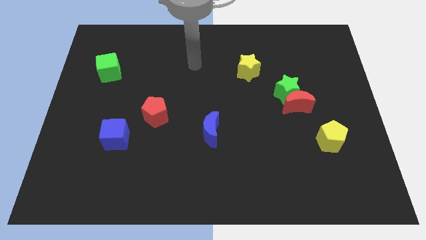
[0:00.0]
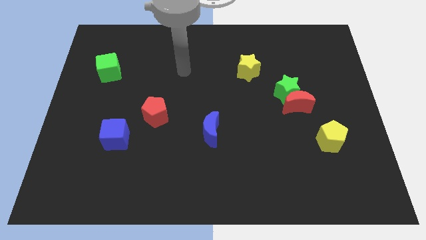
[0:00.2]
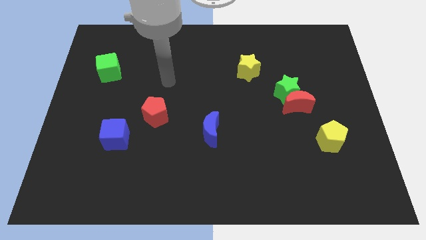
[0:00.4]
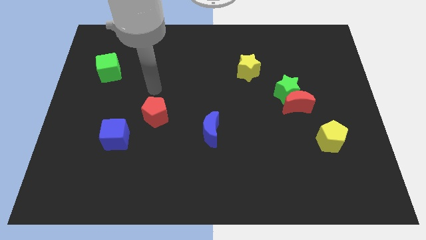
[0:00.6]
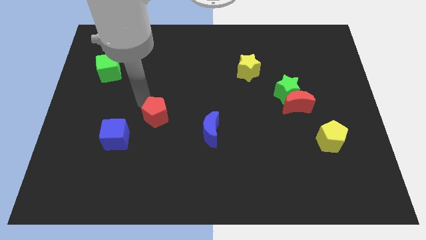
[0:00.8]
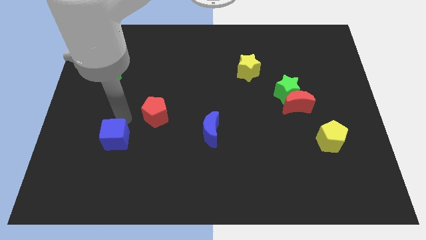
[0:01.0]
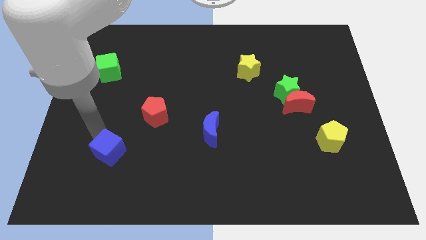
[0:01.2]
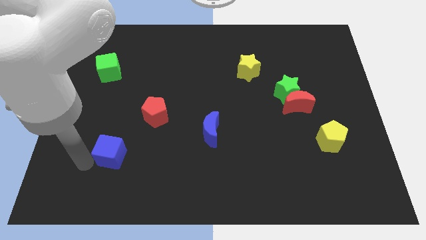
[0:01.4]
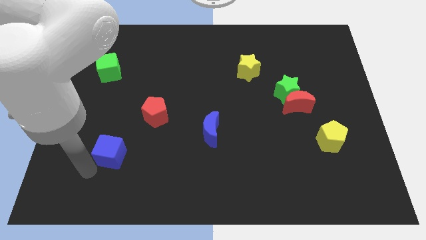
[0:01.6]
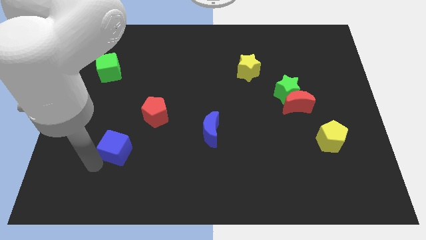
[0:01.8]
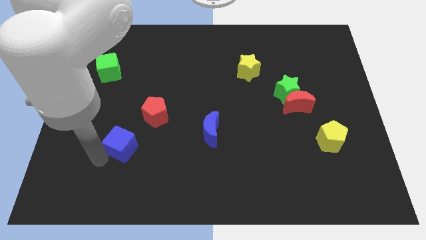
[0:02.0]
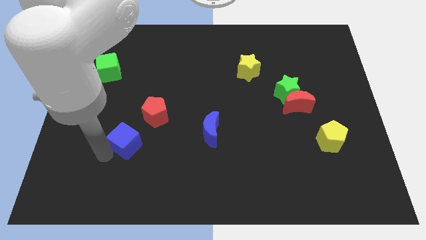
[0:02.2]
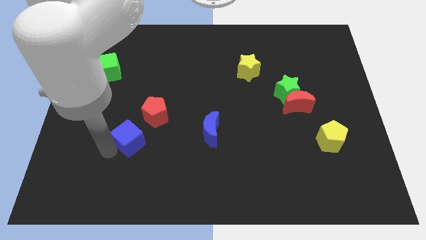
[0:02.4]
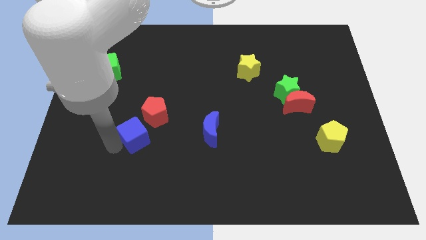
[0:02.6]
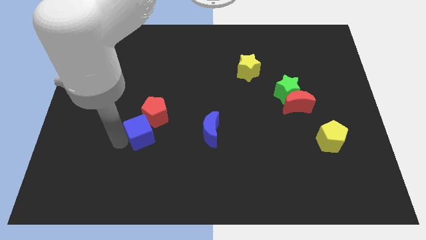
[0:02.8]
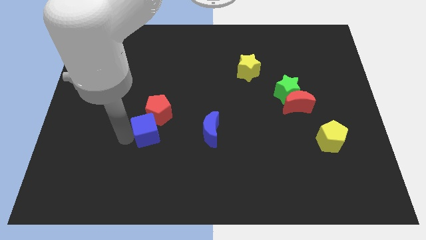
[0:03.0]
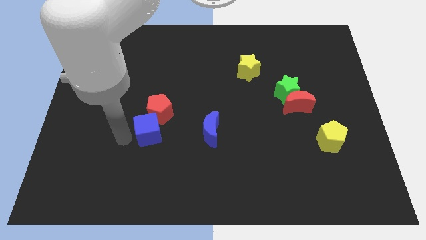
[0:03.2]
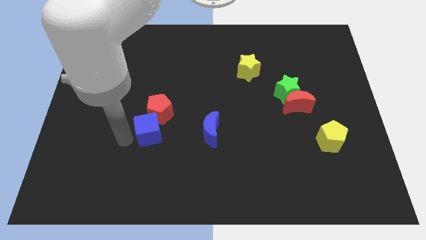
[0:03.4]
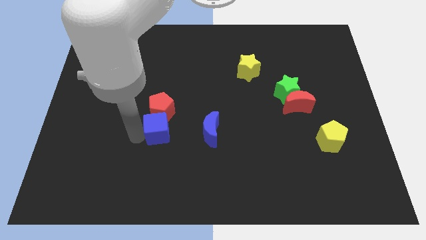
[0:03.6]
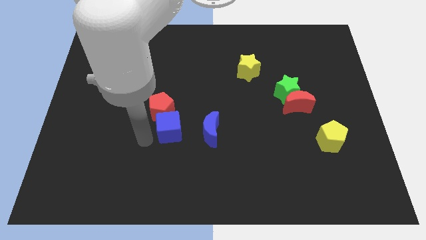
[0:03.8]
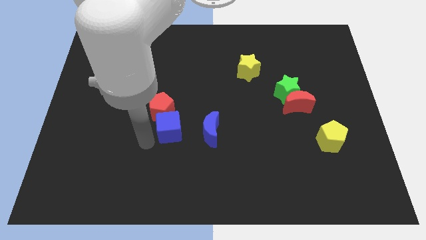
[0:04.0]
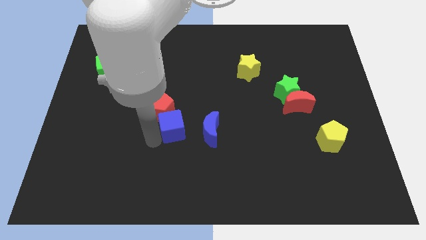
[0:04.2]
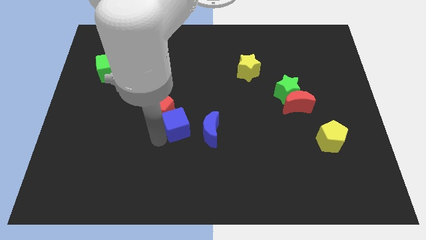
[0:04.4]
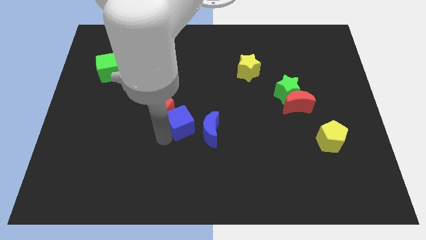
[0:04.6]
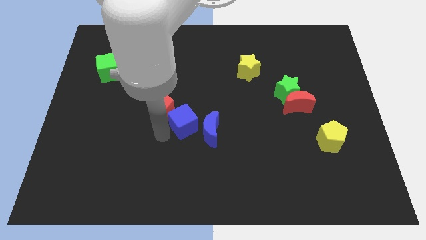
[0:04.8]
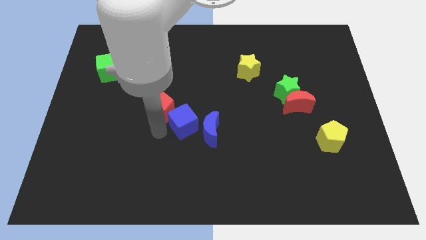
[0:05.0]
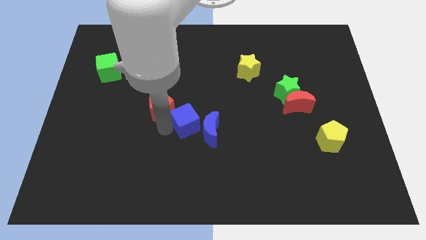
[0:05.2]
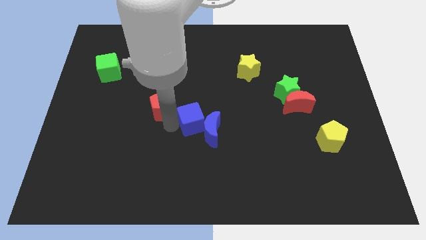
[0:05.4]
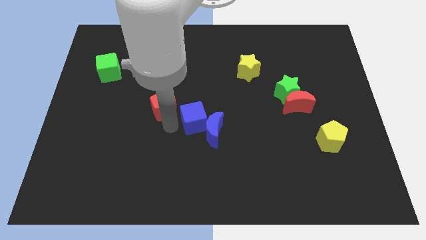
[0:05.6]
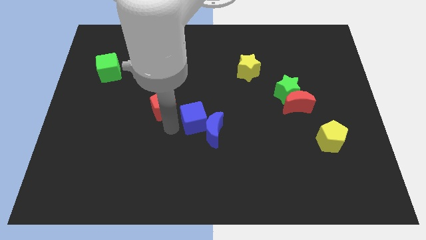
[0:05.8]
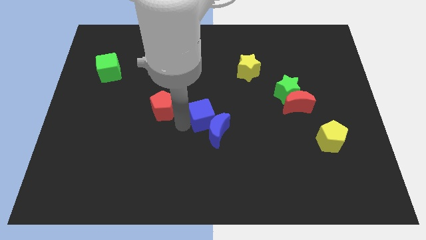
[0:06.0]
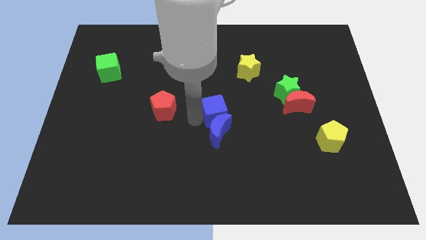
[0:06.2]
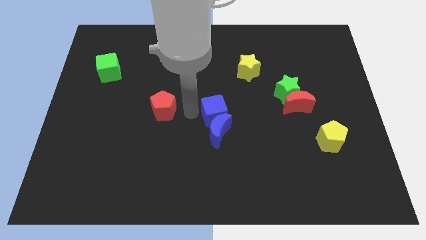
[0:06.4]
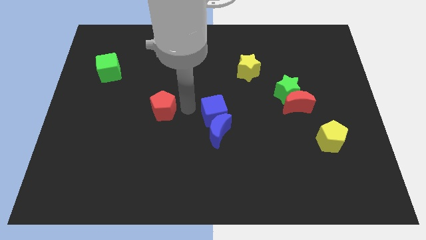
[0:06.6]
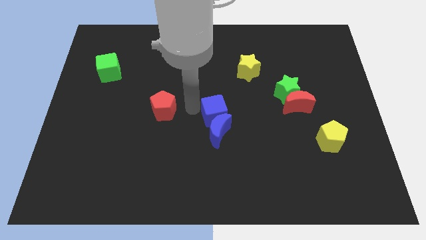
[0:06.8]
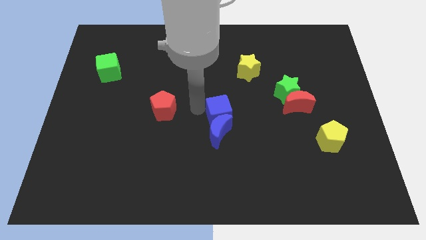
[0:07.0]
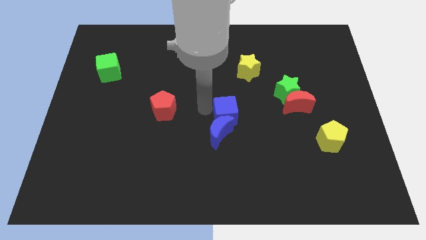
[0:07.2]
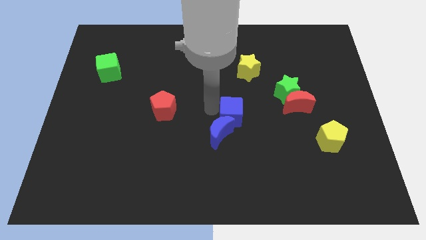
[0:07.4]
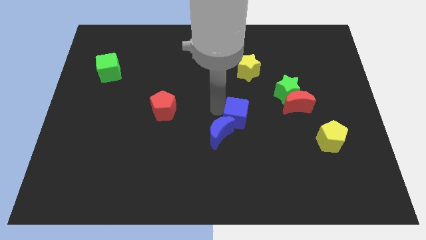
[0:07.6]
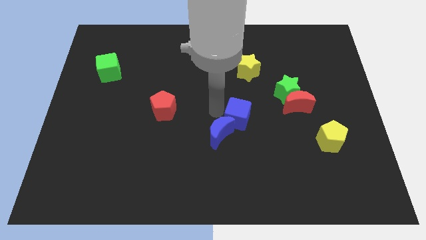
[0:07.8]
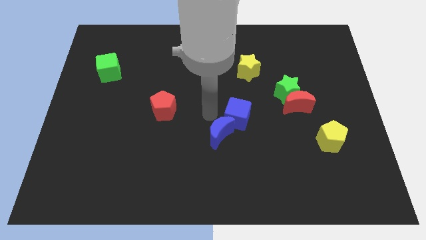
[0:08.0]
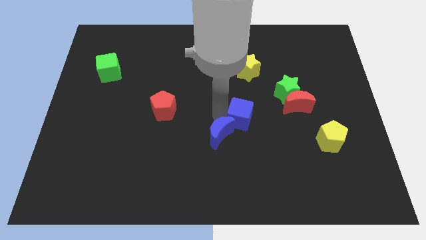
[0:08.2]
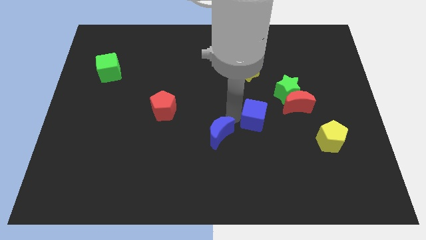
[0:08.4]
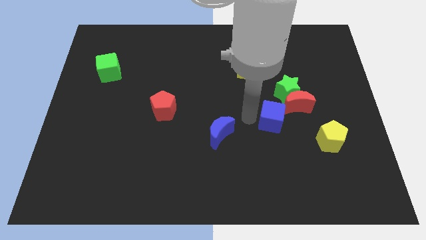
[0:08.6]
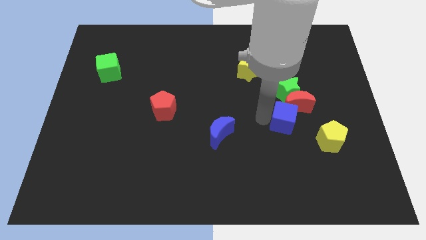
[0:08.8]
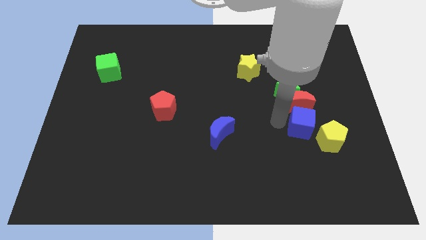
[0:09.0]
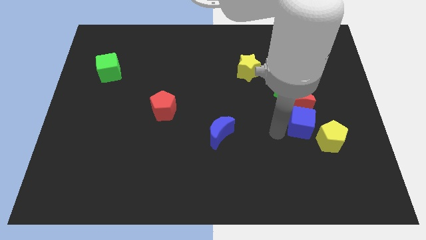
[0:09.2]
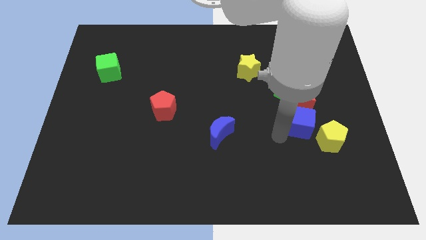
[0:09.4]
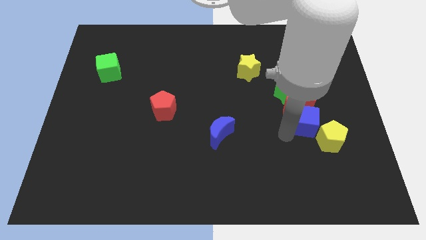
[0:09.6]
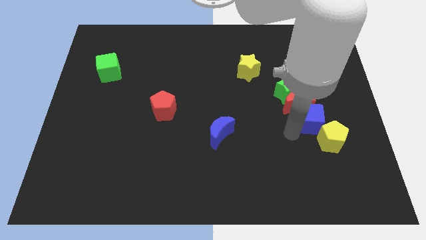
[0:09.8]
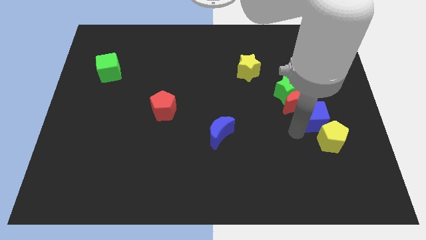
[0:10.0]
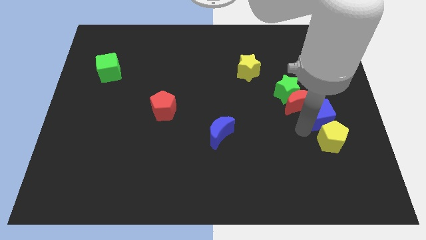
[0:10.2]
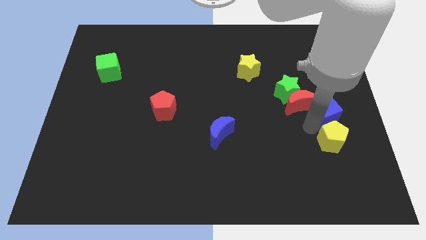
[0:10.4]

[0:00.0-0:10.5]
put the blue cube to the right side
